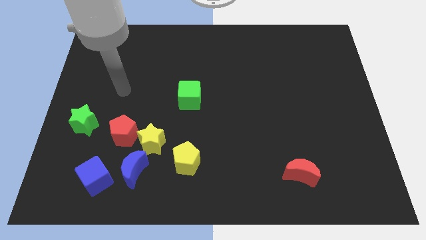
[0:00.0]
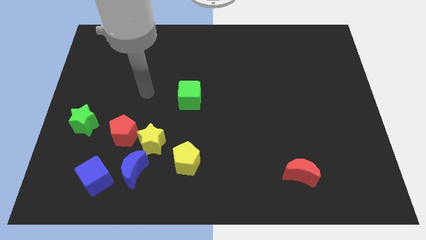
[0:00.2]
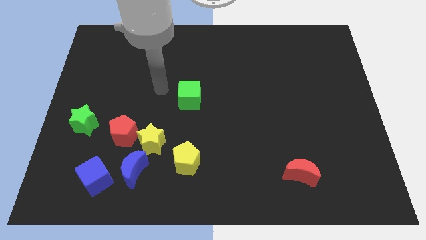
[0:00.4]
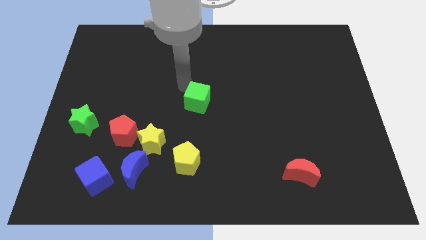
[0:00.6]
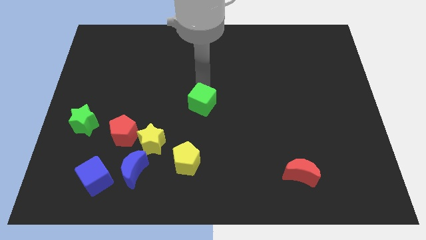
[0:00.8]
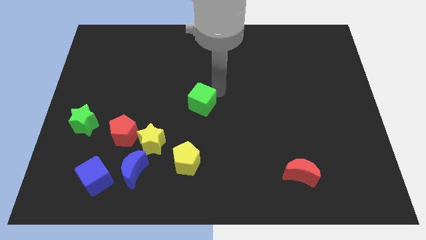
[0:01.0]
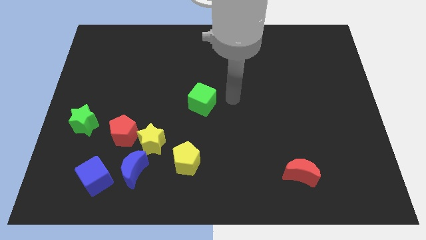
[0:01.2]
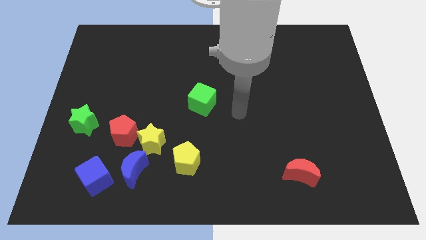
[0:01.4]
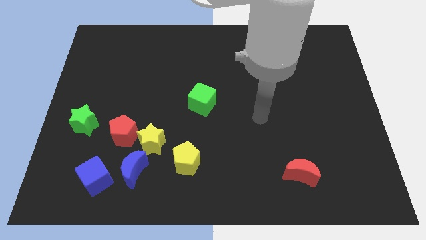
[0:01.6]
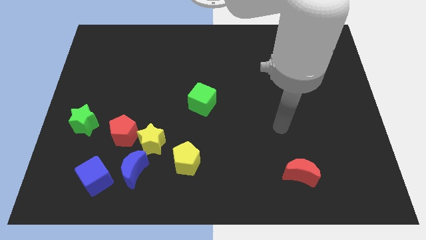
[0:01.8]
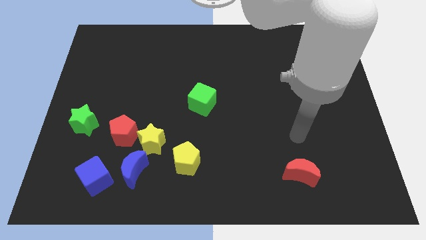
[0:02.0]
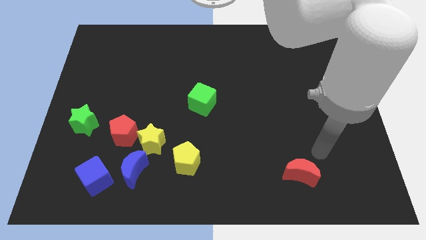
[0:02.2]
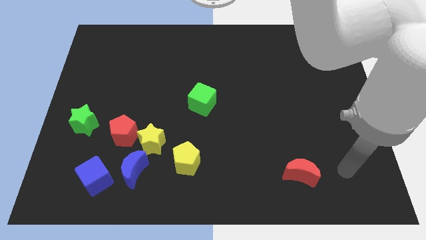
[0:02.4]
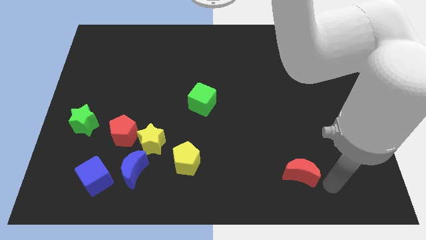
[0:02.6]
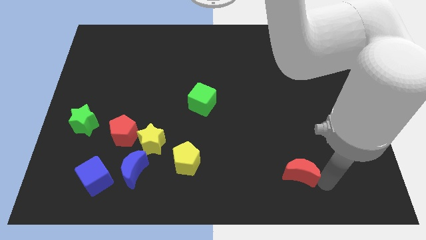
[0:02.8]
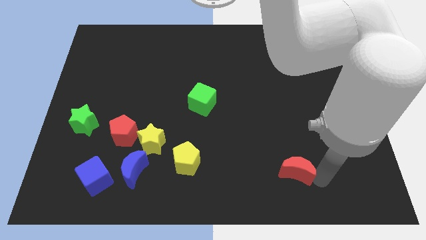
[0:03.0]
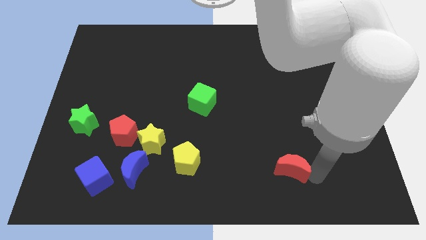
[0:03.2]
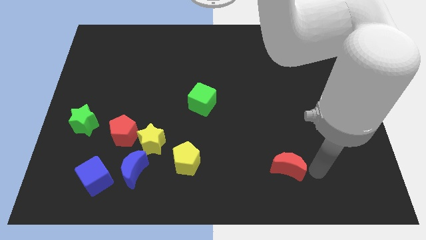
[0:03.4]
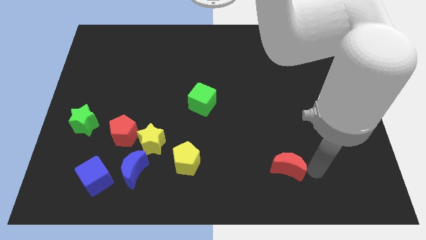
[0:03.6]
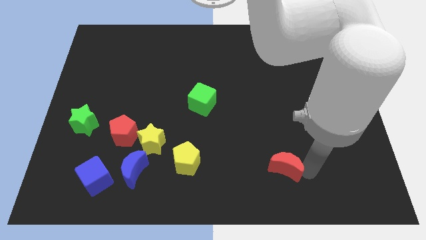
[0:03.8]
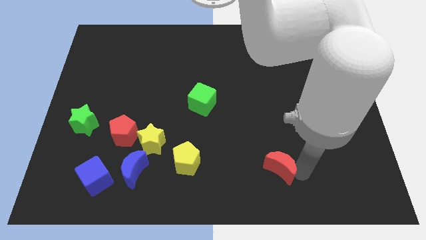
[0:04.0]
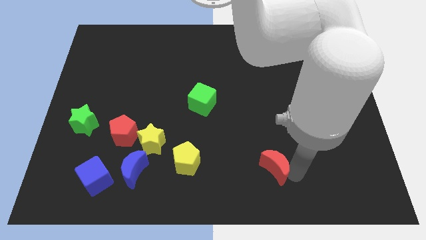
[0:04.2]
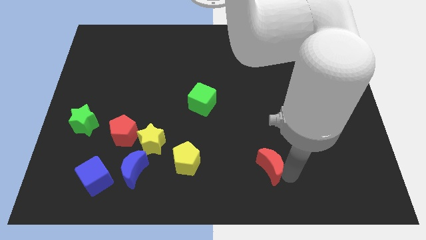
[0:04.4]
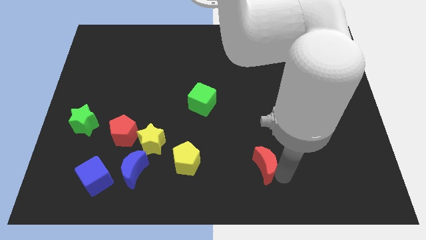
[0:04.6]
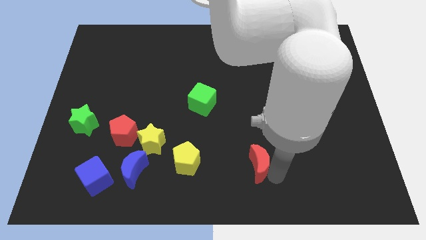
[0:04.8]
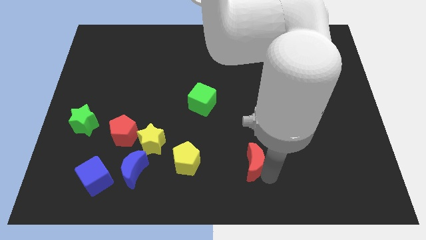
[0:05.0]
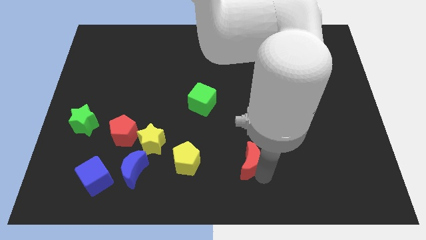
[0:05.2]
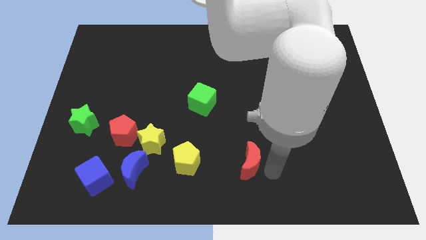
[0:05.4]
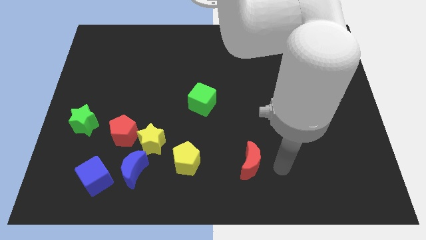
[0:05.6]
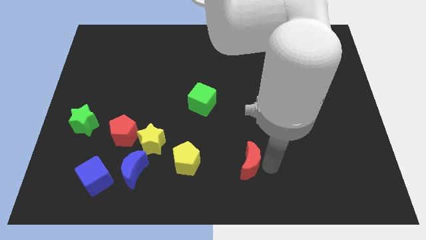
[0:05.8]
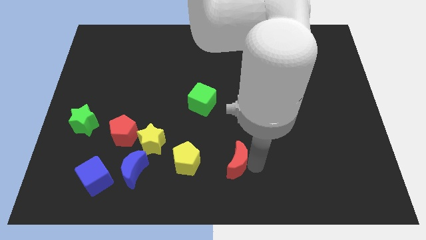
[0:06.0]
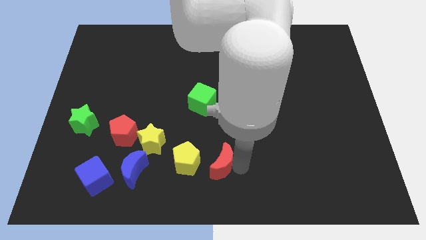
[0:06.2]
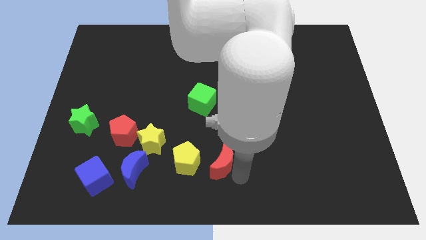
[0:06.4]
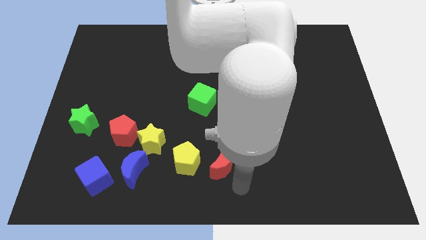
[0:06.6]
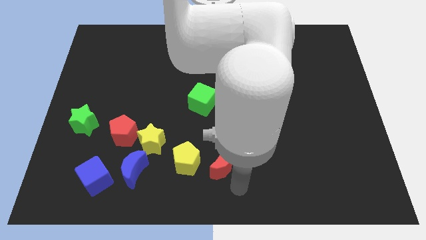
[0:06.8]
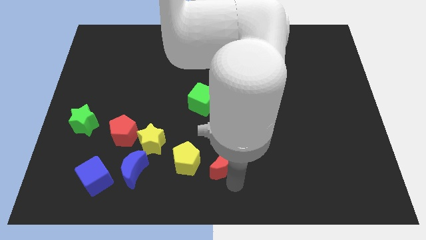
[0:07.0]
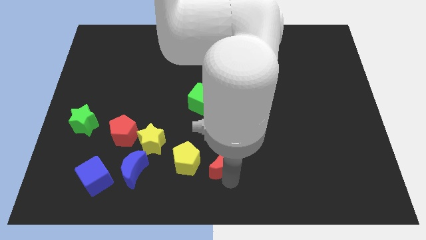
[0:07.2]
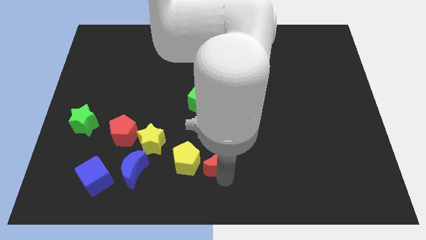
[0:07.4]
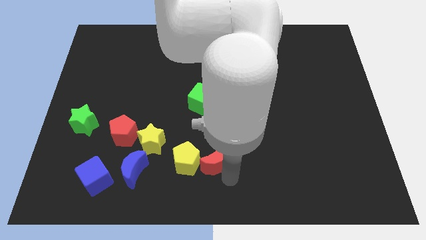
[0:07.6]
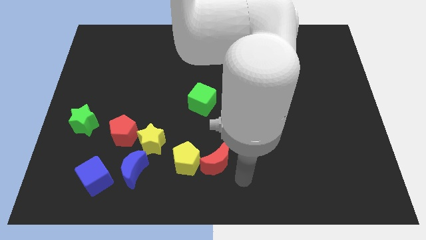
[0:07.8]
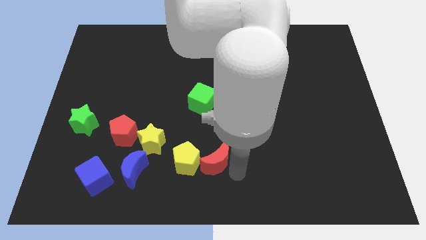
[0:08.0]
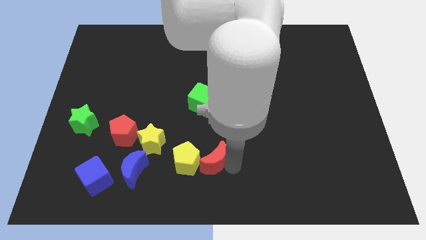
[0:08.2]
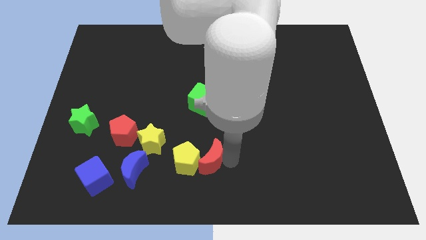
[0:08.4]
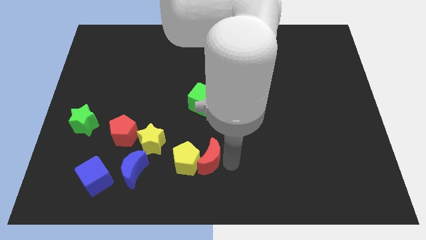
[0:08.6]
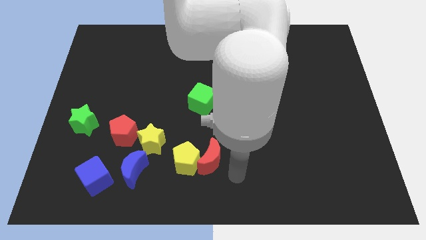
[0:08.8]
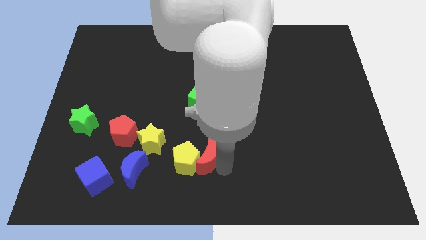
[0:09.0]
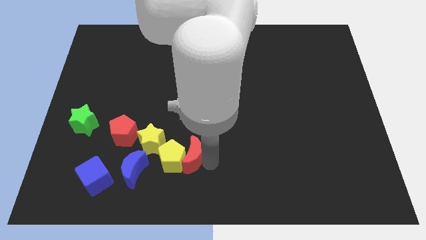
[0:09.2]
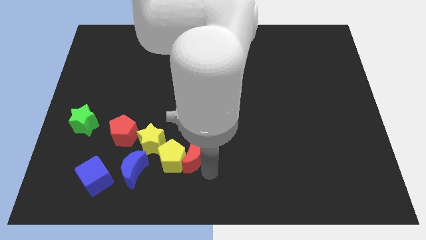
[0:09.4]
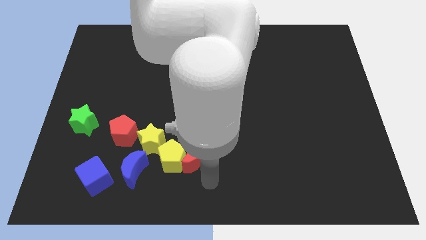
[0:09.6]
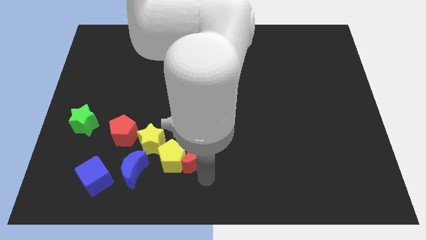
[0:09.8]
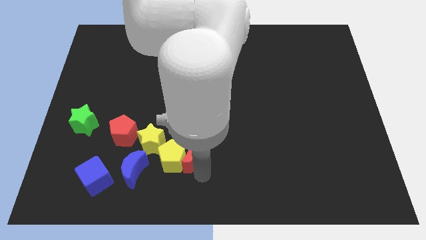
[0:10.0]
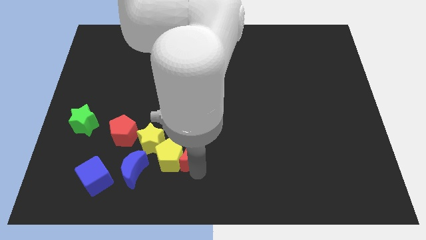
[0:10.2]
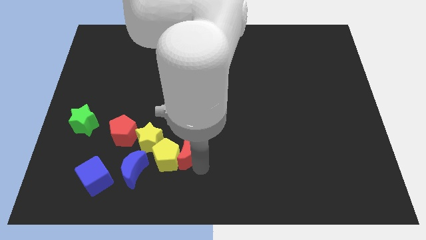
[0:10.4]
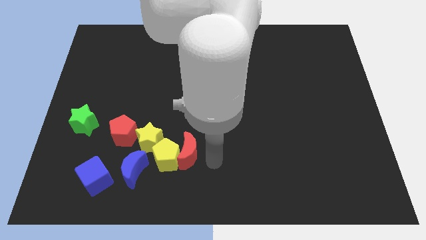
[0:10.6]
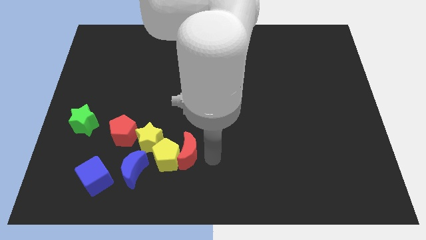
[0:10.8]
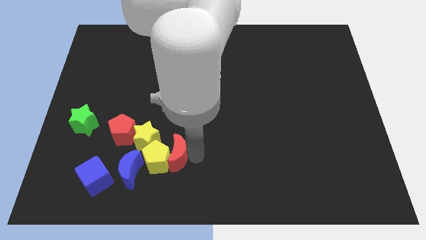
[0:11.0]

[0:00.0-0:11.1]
push the red moon to the top right side of the blue moon

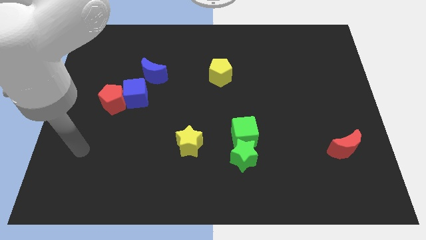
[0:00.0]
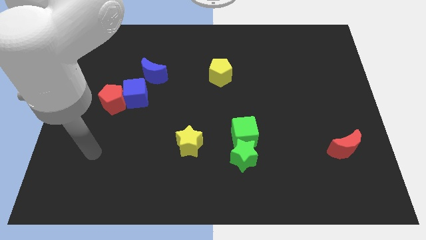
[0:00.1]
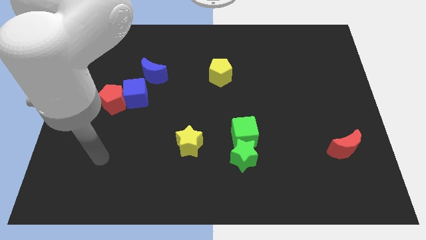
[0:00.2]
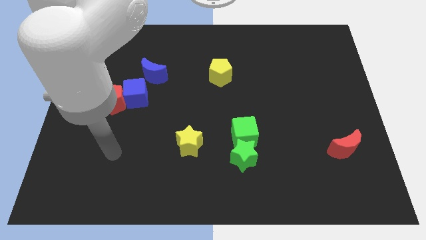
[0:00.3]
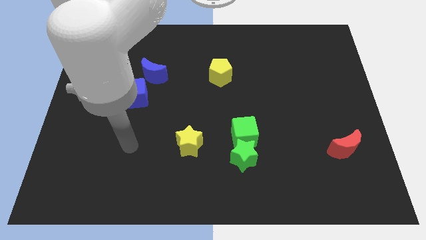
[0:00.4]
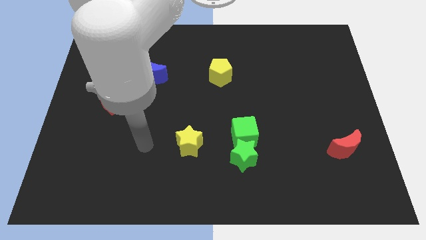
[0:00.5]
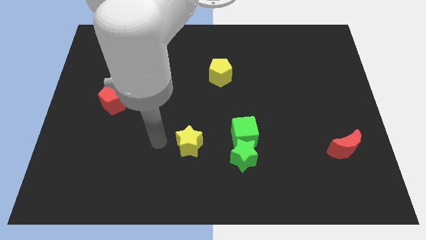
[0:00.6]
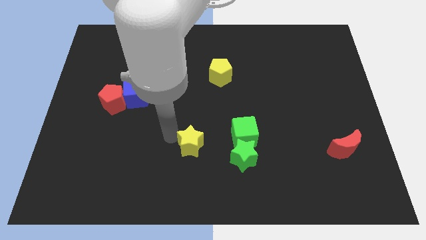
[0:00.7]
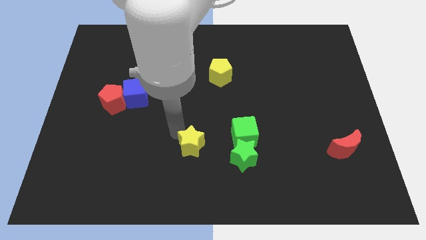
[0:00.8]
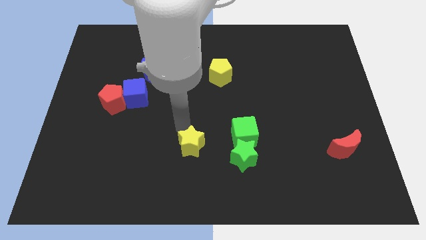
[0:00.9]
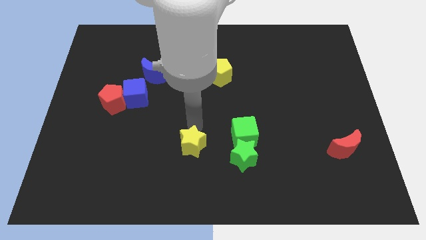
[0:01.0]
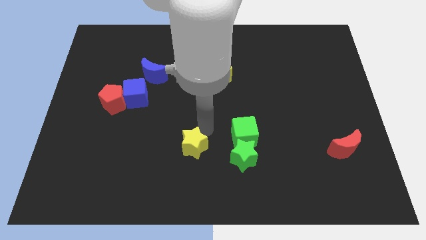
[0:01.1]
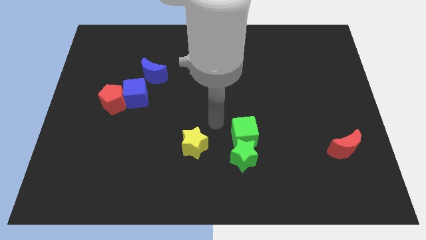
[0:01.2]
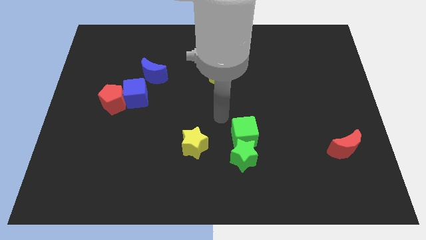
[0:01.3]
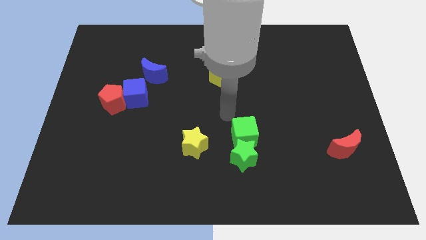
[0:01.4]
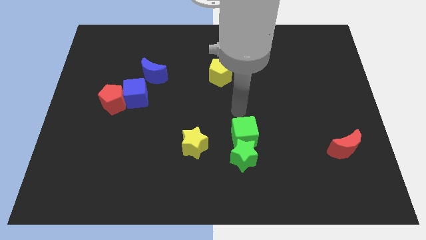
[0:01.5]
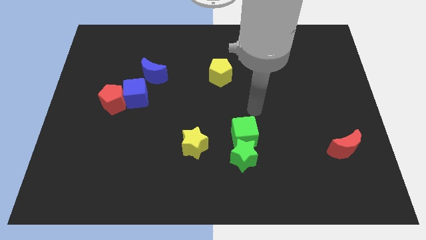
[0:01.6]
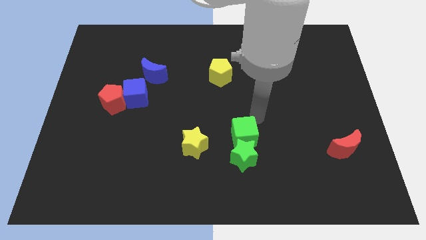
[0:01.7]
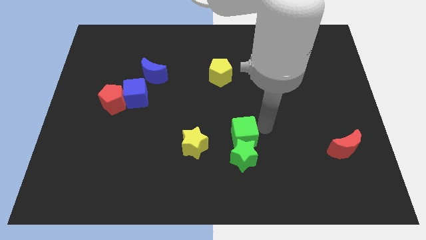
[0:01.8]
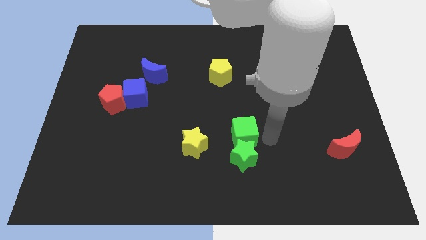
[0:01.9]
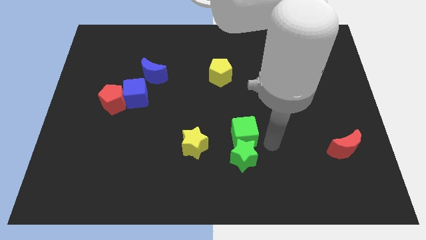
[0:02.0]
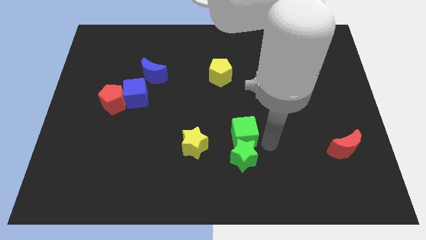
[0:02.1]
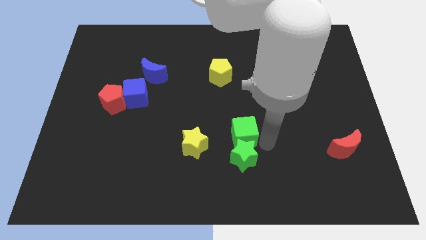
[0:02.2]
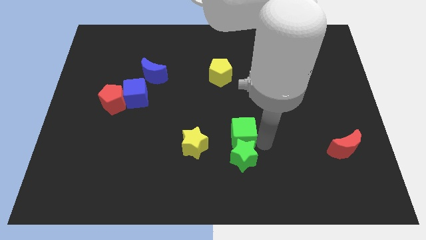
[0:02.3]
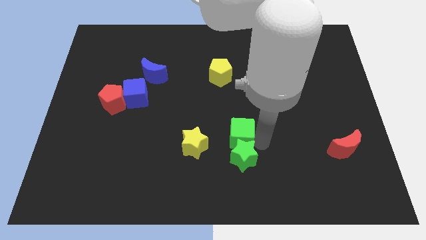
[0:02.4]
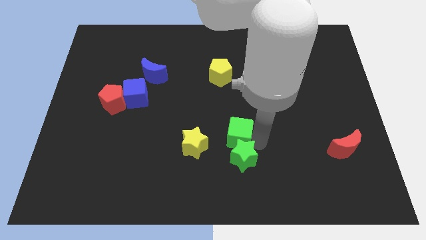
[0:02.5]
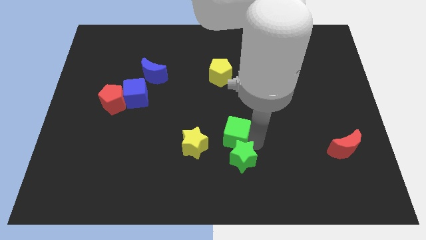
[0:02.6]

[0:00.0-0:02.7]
slide the green cube diagonally up and to the right of the yellow star
